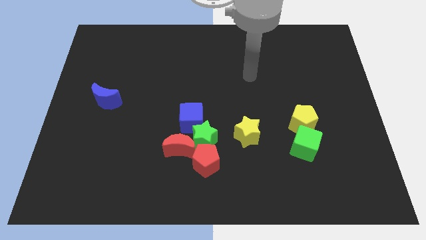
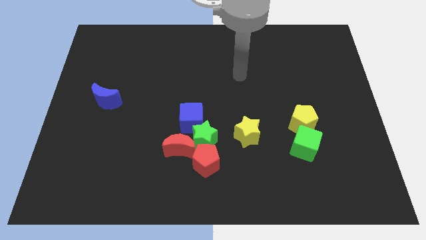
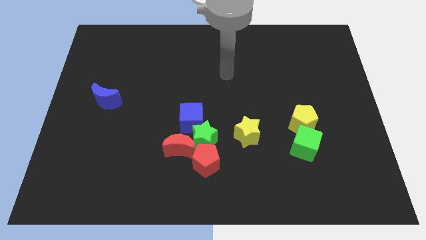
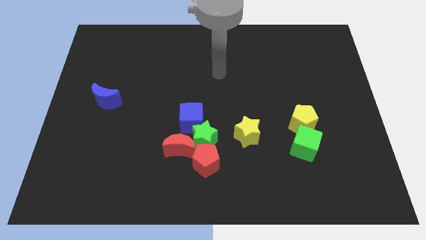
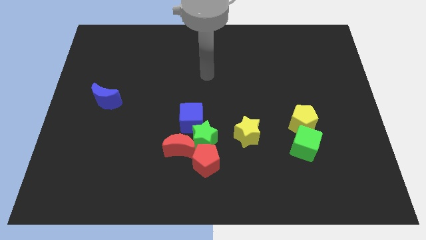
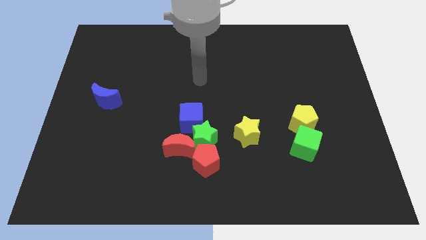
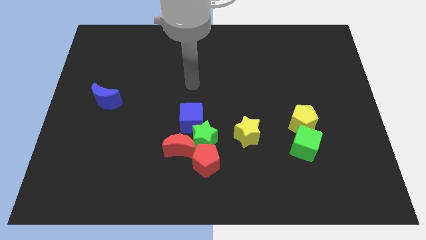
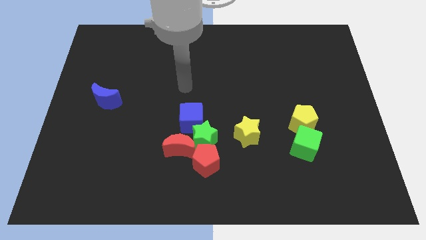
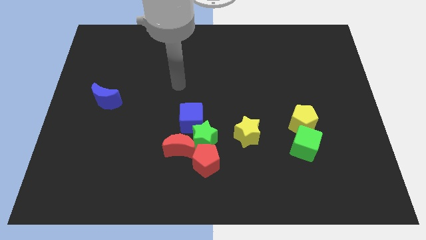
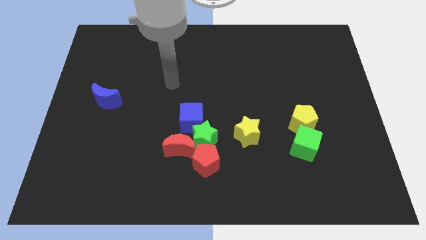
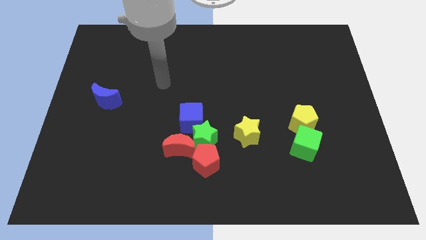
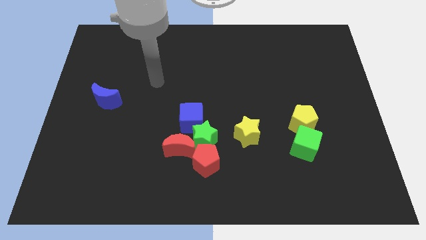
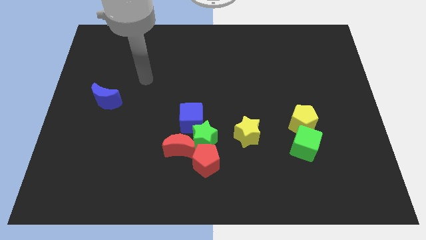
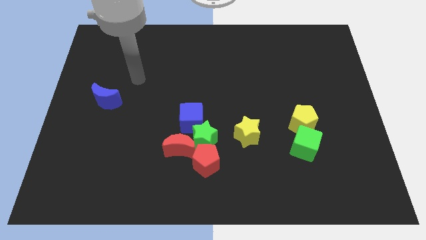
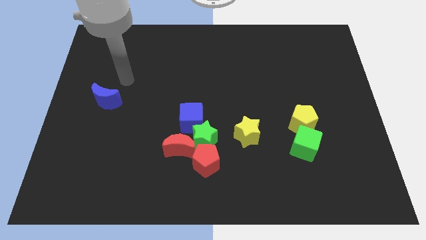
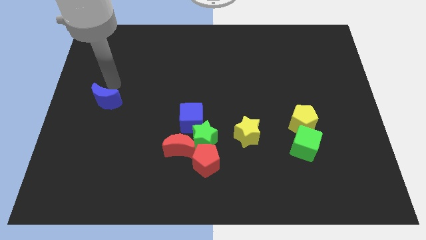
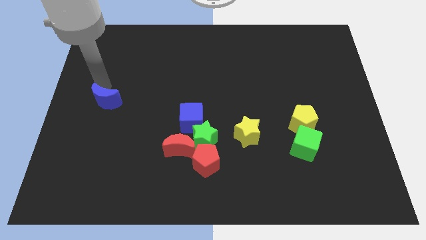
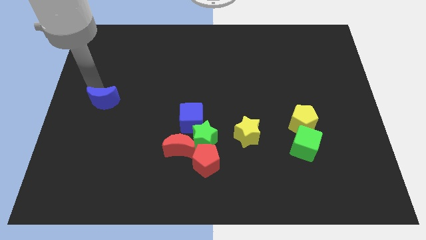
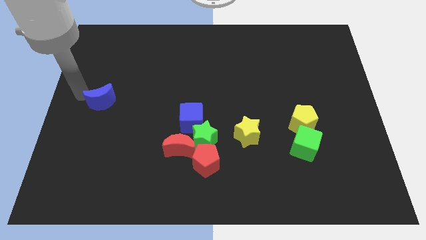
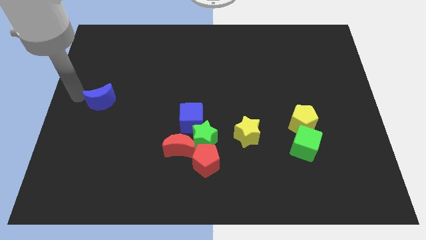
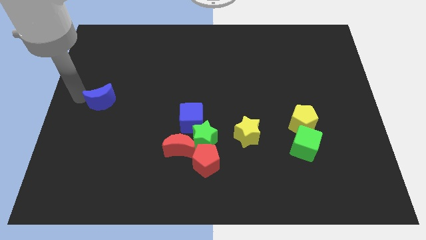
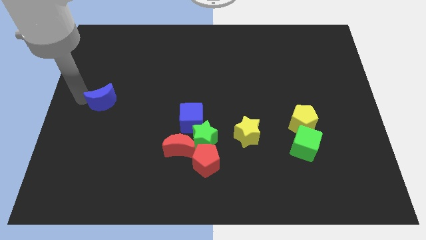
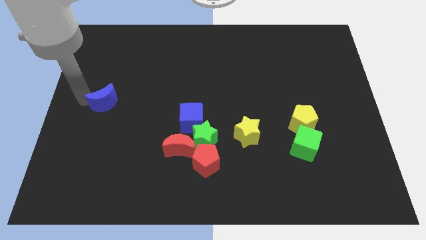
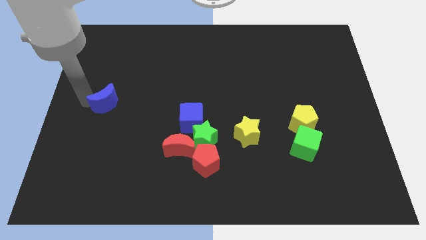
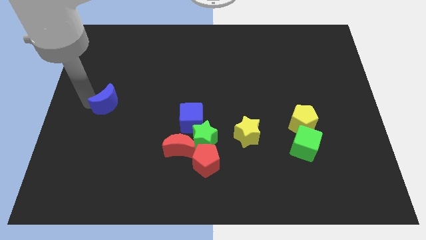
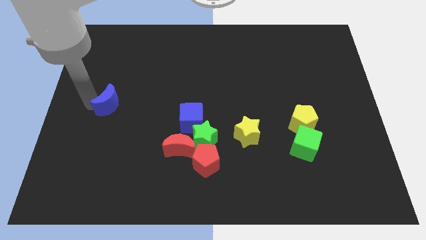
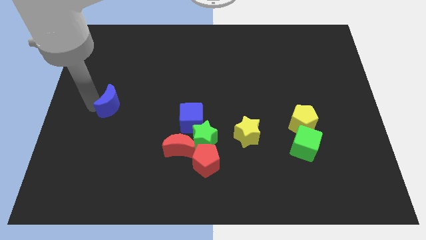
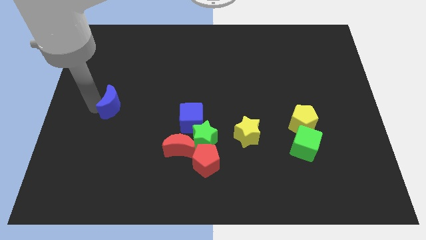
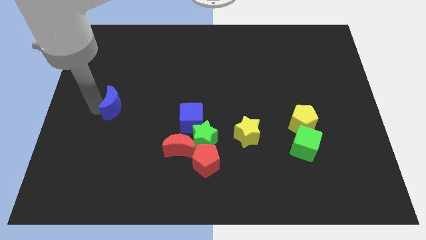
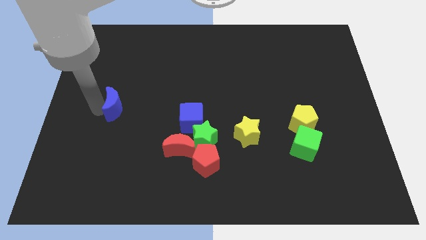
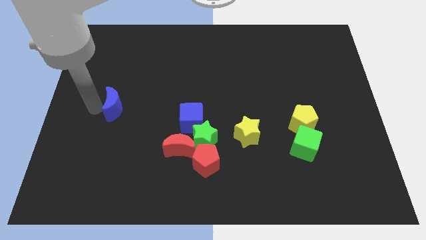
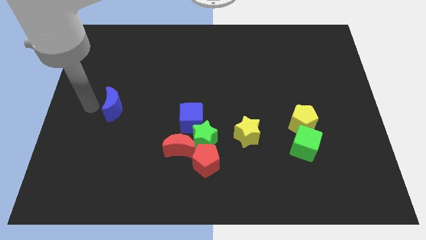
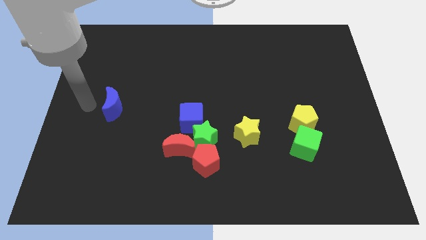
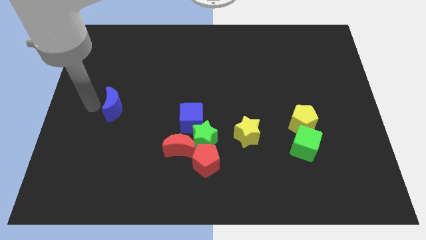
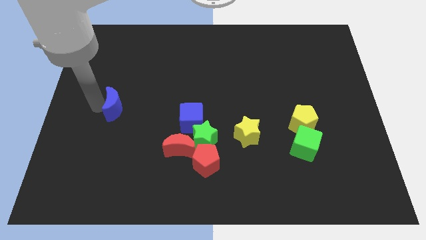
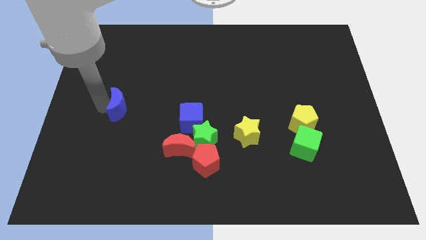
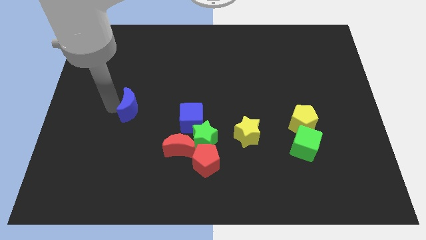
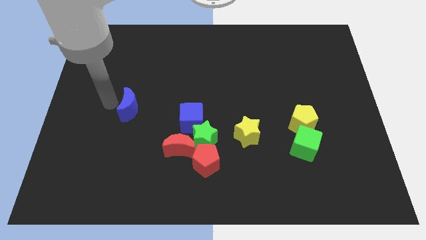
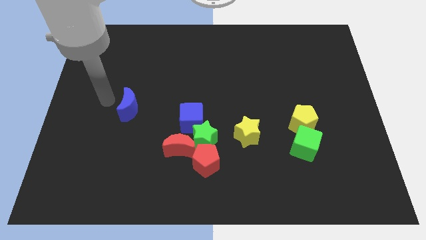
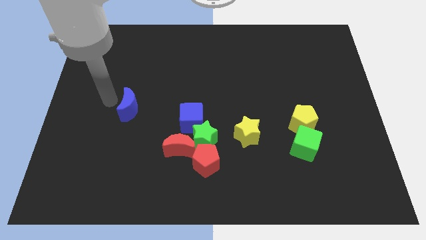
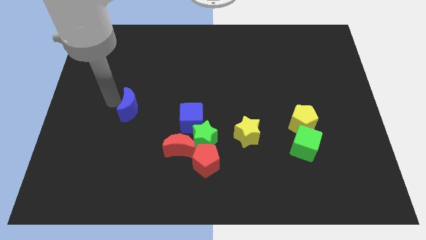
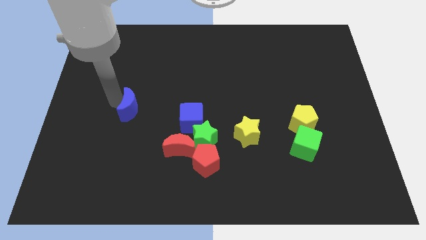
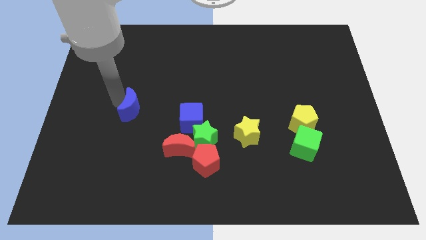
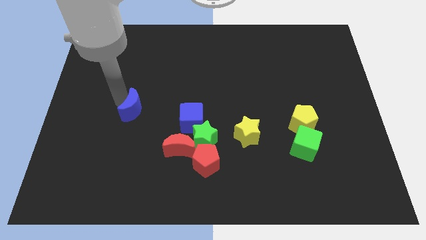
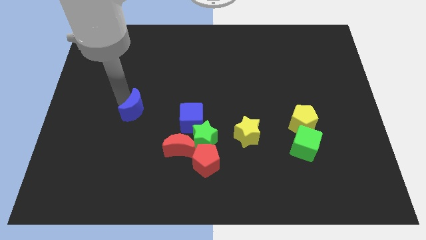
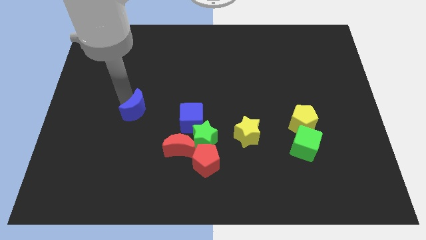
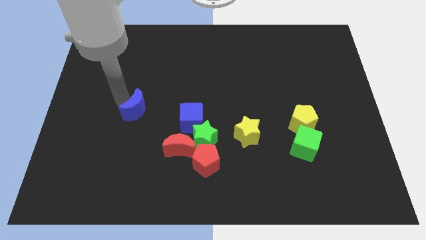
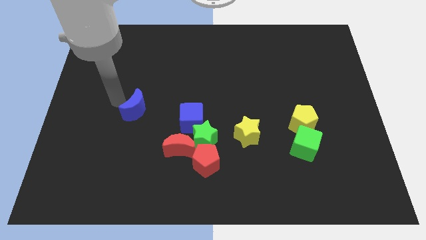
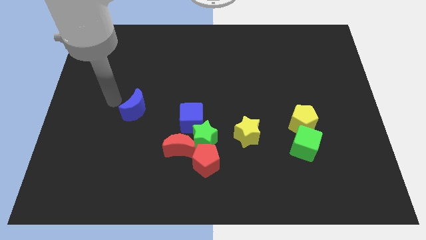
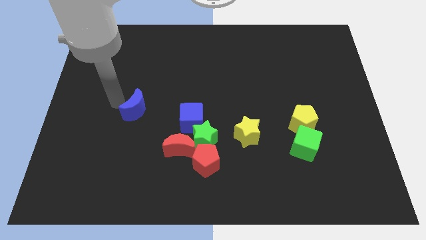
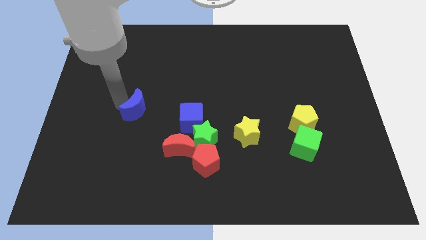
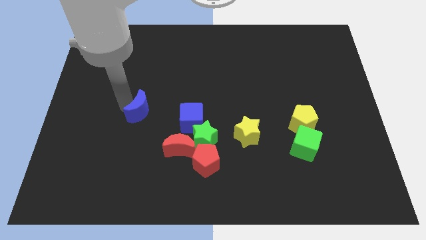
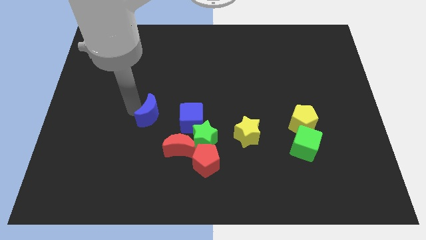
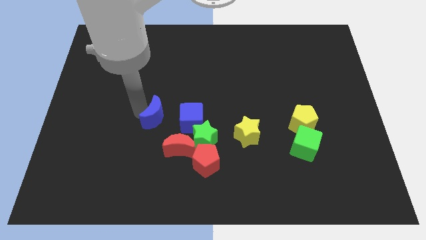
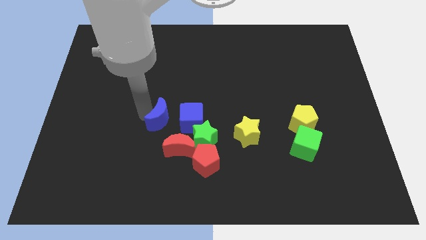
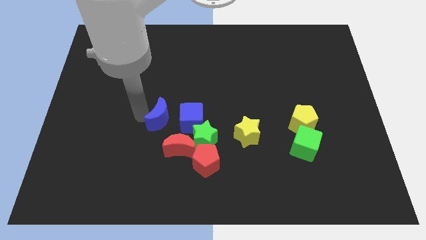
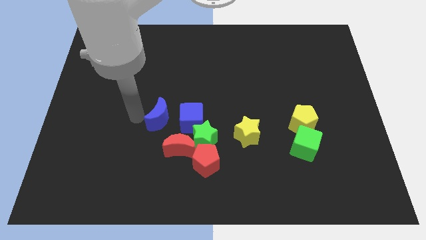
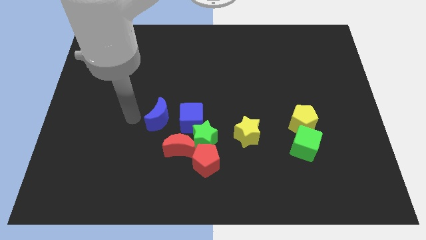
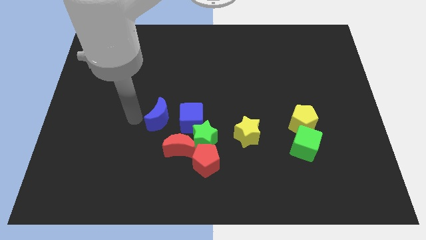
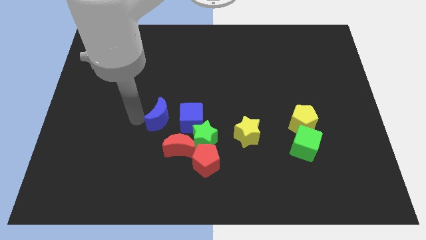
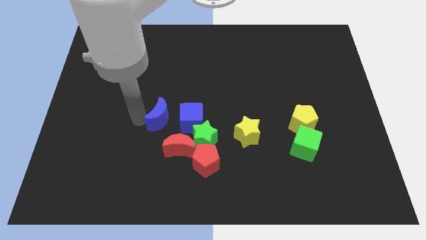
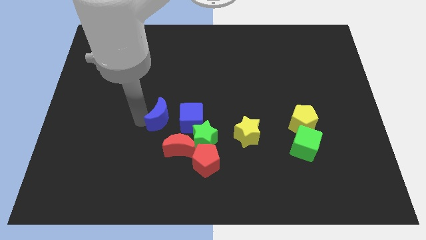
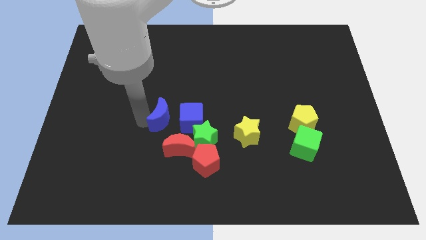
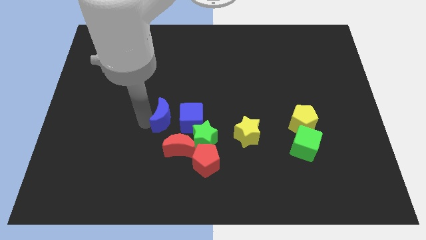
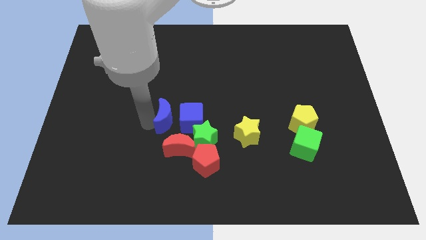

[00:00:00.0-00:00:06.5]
push the blue moon close to the blue cube

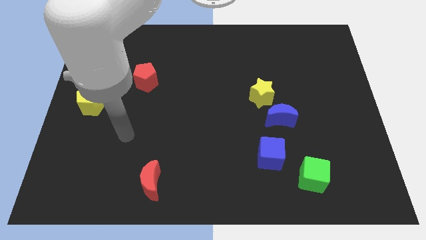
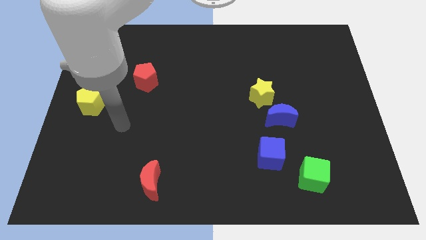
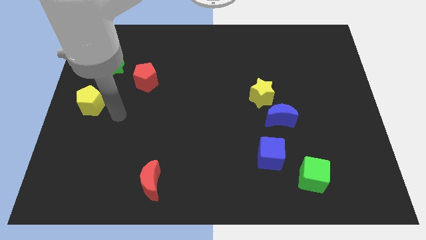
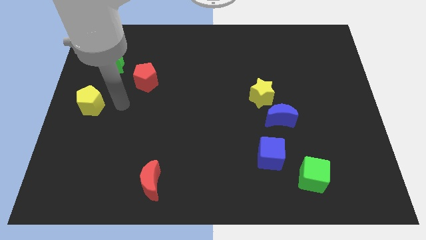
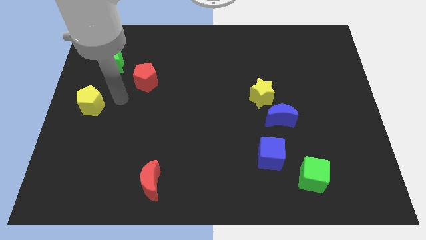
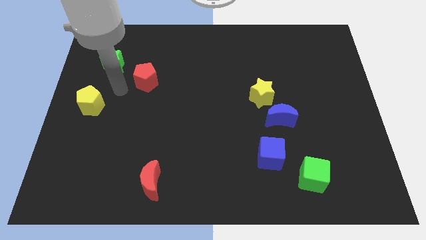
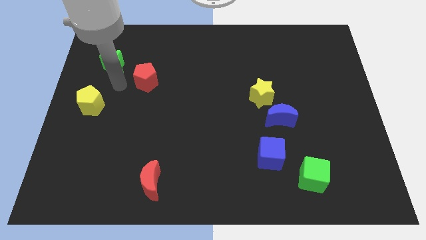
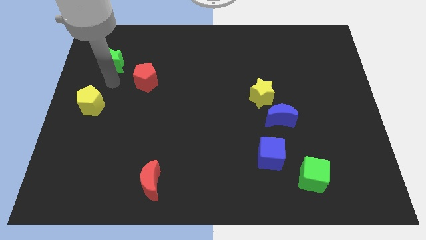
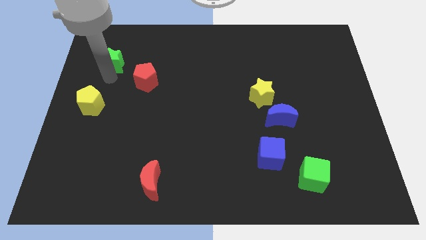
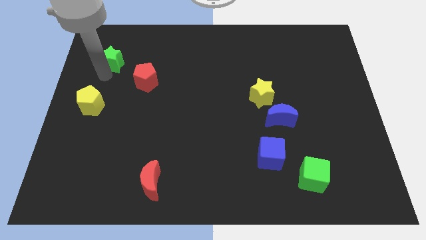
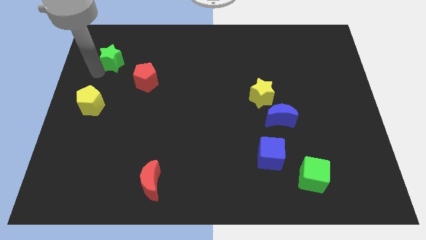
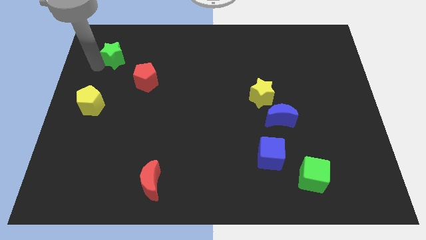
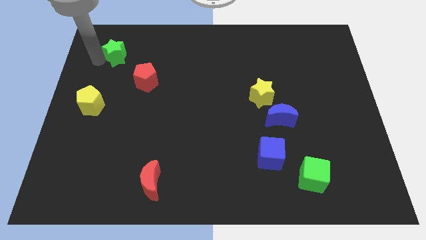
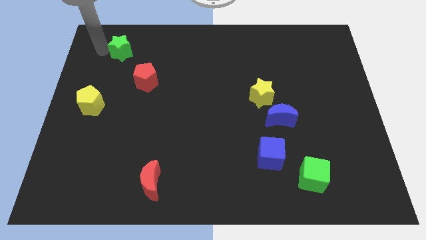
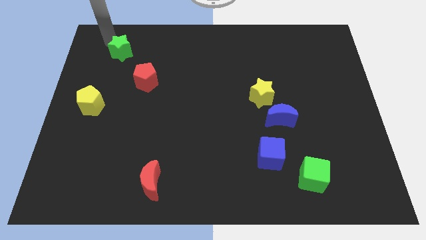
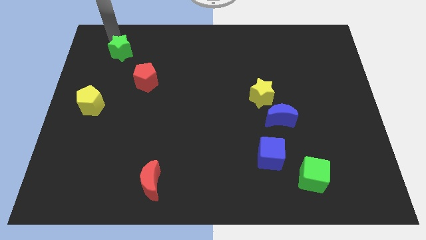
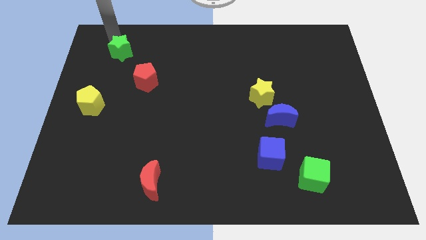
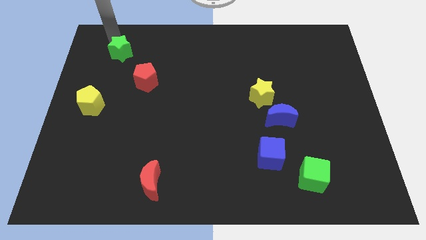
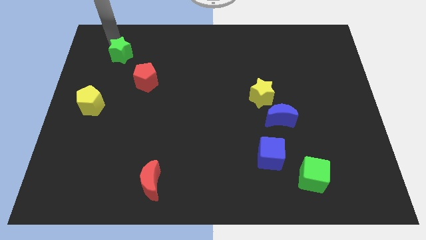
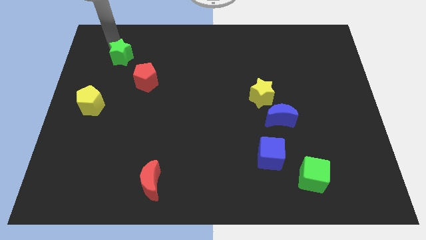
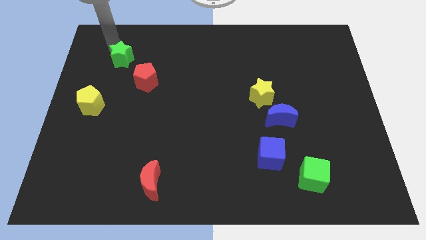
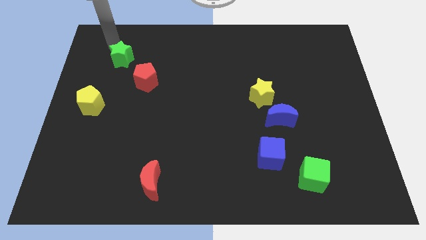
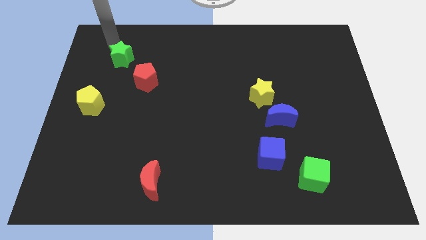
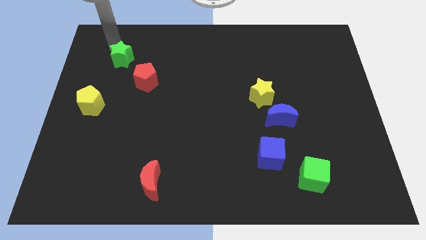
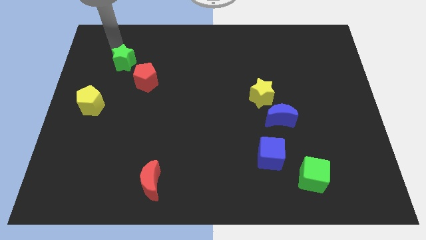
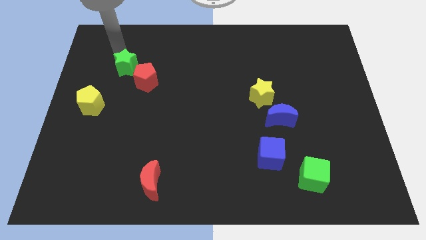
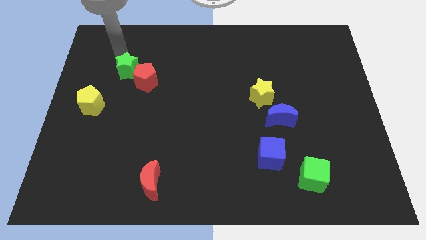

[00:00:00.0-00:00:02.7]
put the green star towards the red pentagon
